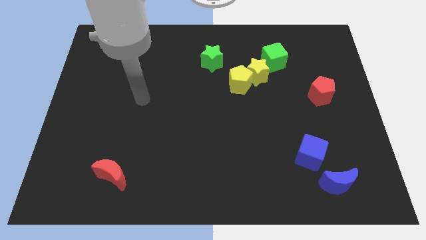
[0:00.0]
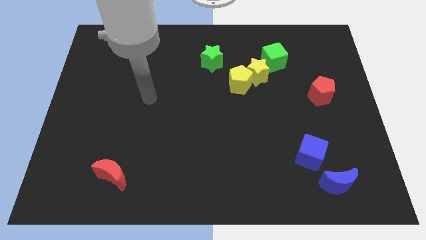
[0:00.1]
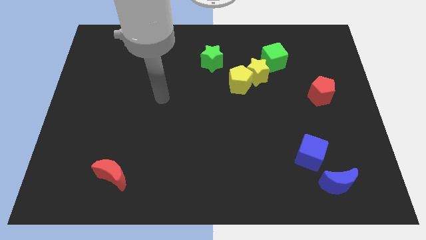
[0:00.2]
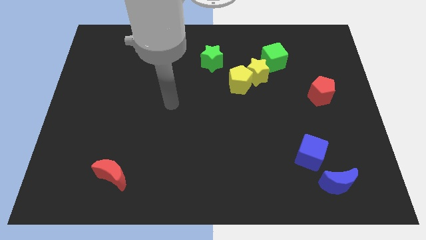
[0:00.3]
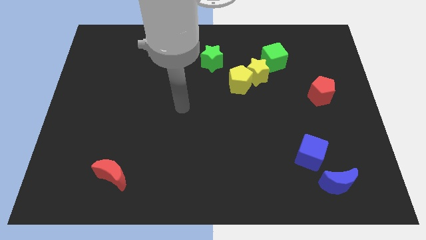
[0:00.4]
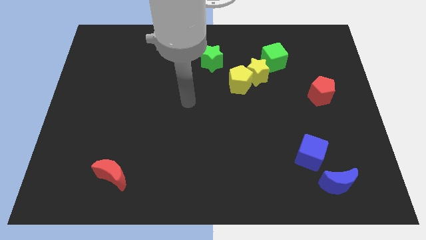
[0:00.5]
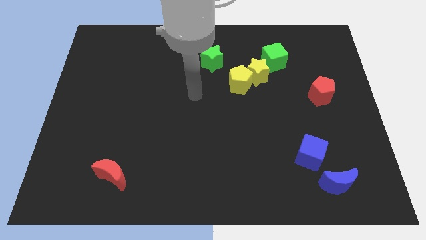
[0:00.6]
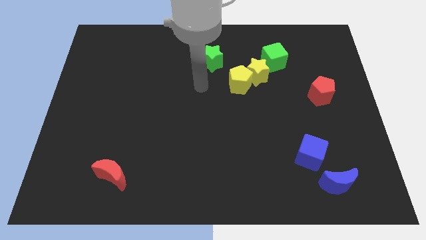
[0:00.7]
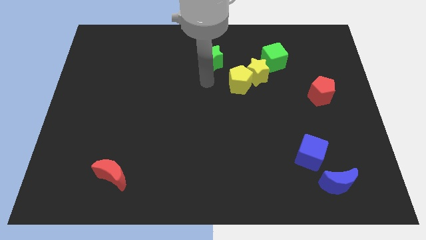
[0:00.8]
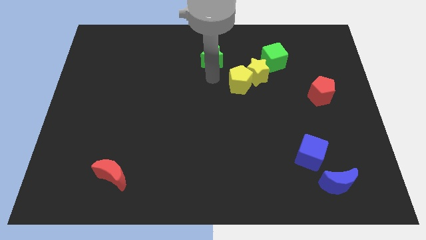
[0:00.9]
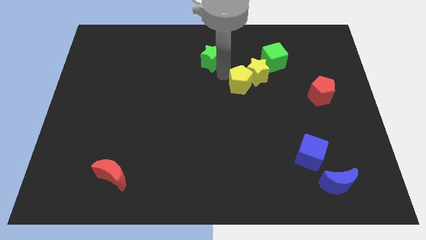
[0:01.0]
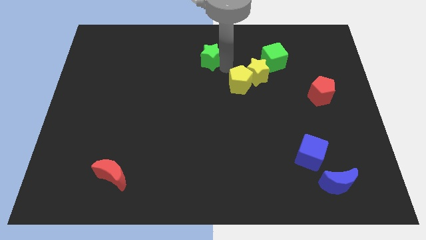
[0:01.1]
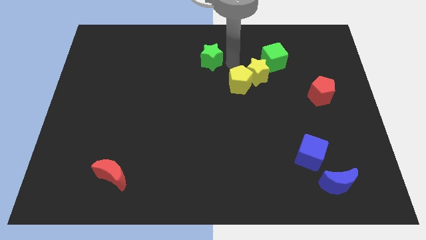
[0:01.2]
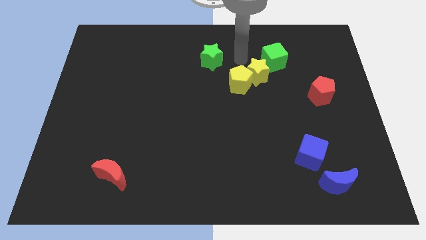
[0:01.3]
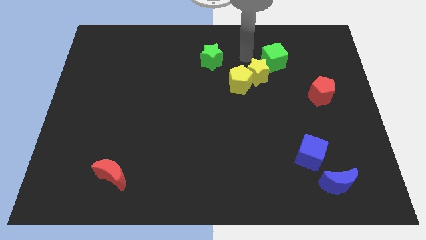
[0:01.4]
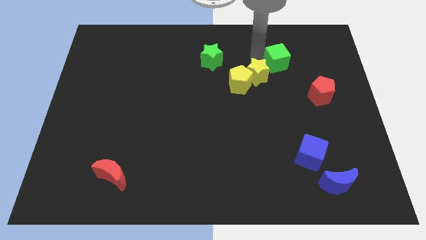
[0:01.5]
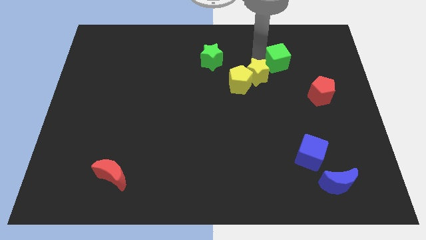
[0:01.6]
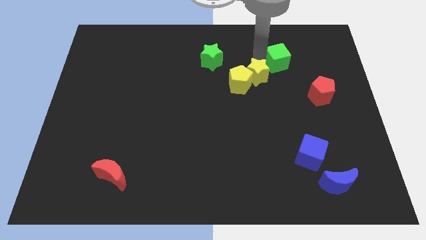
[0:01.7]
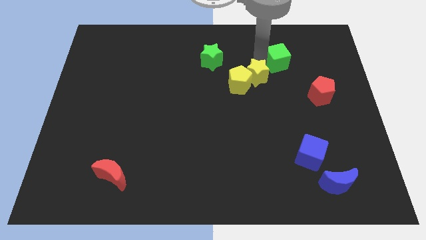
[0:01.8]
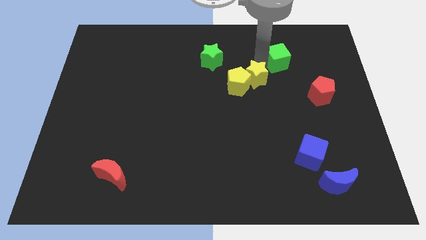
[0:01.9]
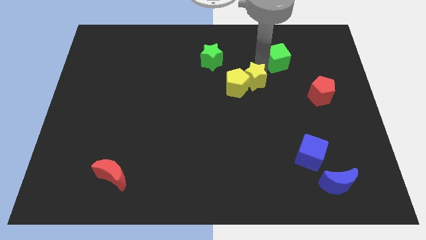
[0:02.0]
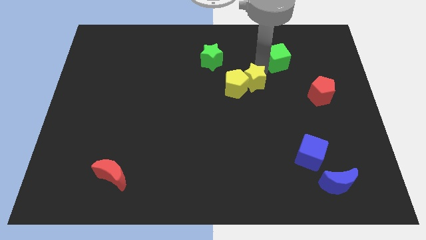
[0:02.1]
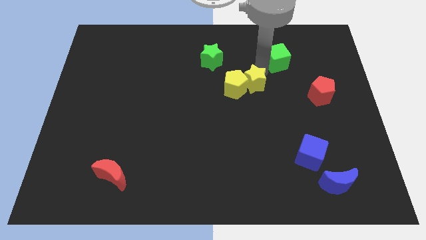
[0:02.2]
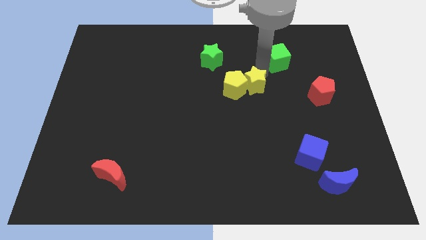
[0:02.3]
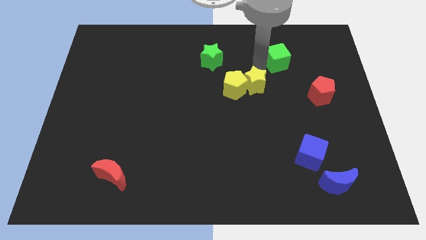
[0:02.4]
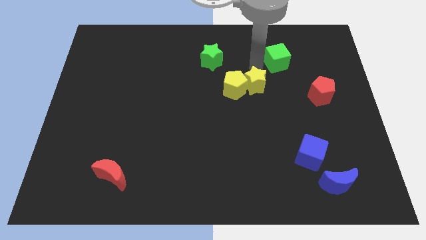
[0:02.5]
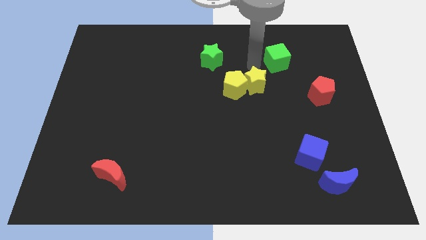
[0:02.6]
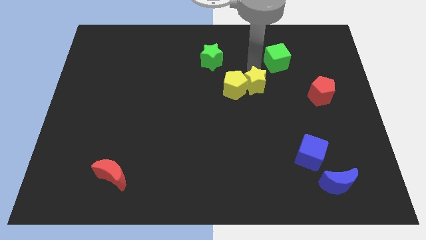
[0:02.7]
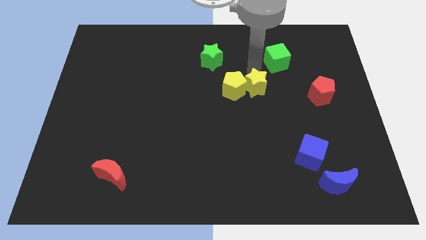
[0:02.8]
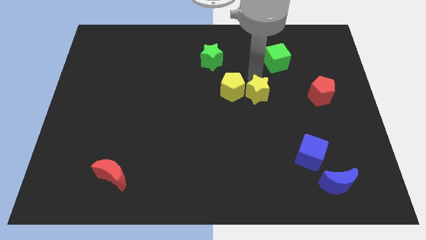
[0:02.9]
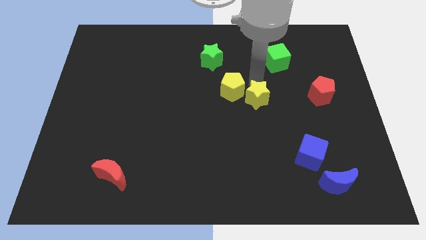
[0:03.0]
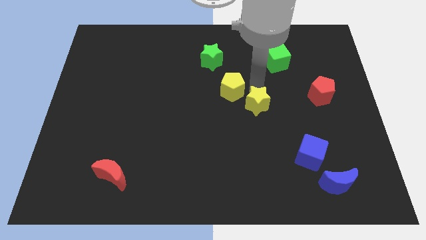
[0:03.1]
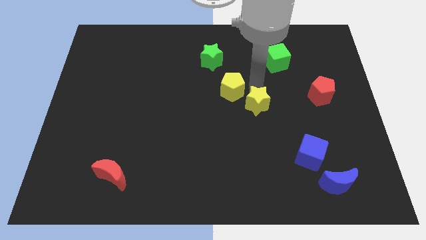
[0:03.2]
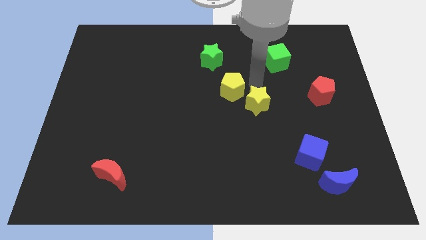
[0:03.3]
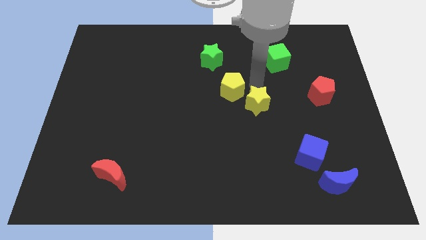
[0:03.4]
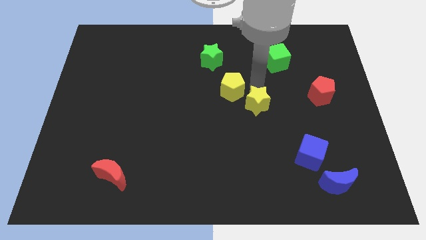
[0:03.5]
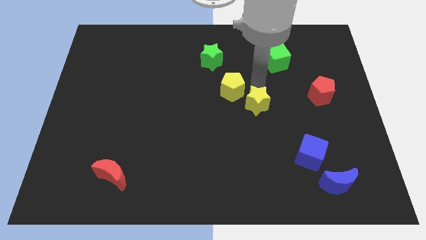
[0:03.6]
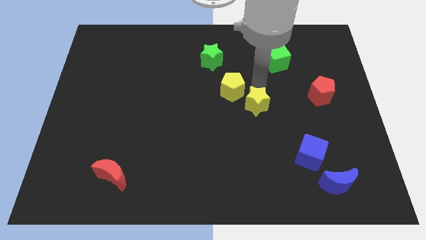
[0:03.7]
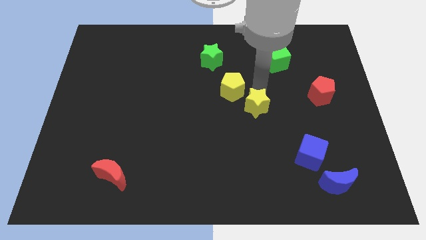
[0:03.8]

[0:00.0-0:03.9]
pull the yellow star apart from the yellow pentagon and green cube

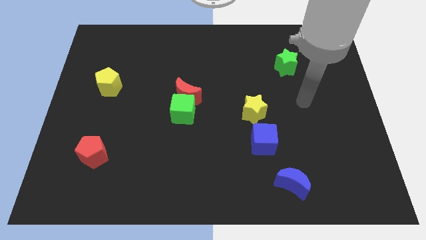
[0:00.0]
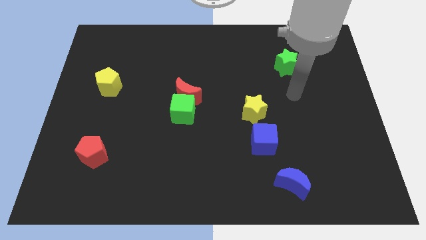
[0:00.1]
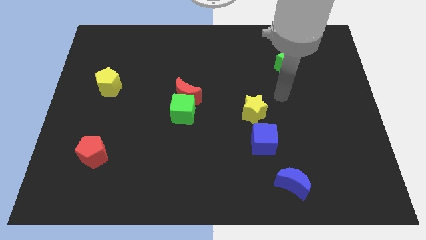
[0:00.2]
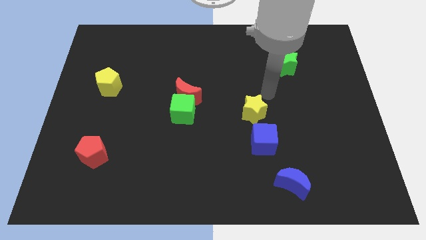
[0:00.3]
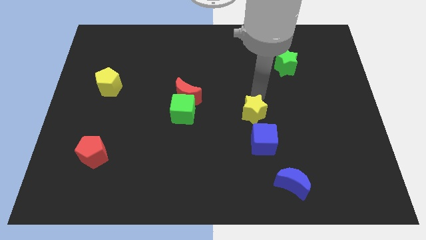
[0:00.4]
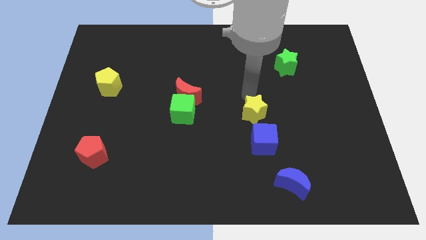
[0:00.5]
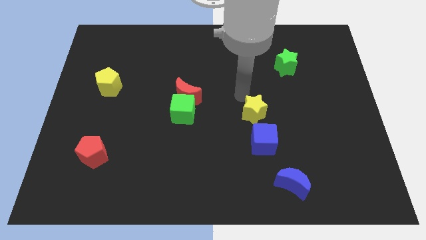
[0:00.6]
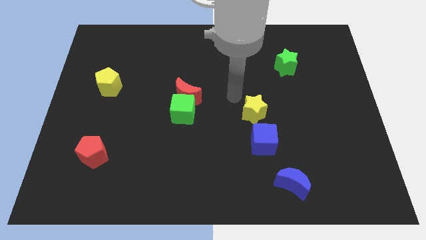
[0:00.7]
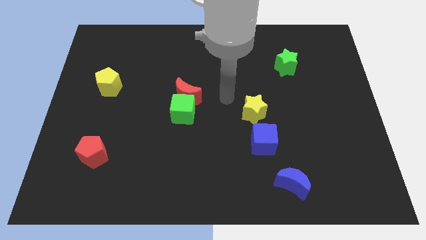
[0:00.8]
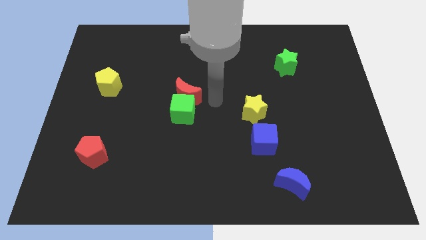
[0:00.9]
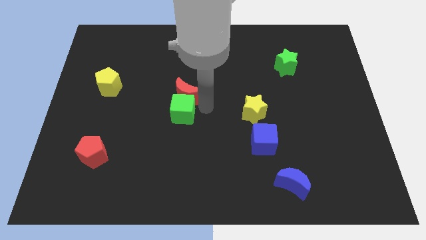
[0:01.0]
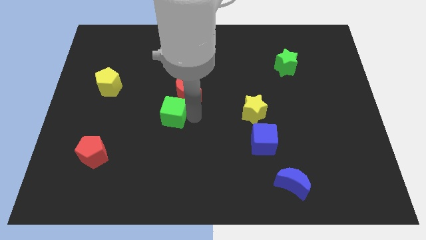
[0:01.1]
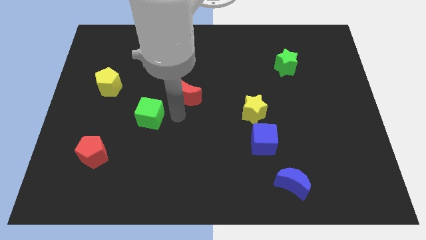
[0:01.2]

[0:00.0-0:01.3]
pull the red moon apart from the green cube

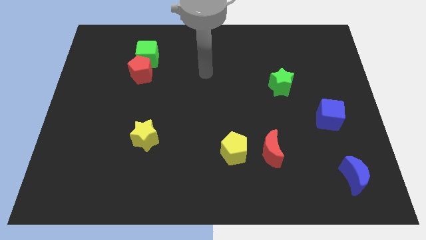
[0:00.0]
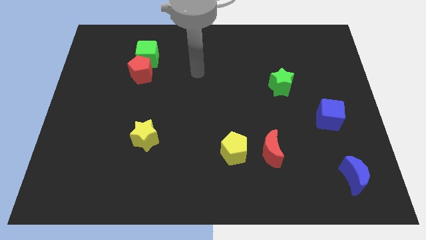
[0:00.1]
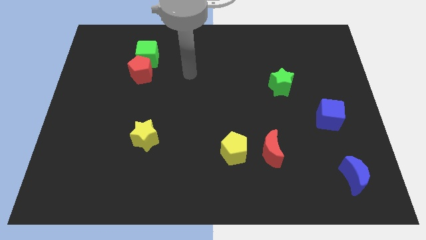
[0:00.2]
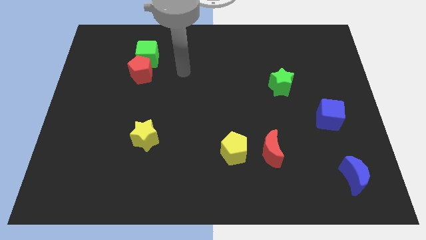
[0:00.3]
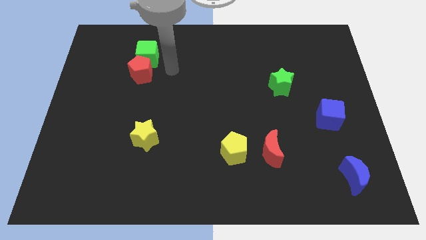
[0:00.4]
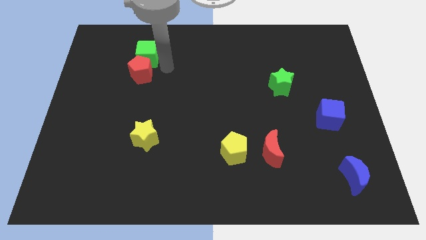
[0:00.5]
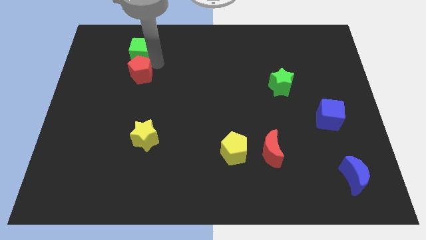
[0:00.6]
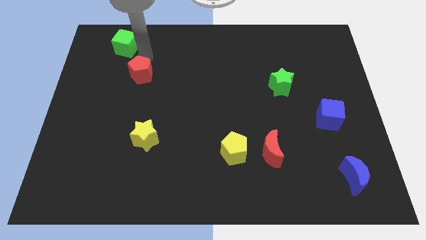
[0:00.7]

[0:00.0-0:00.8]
pull the red pentagon apart from the green cube

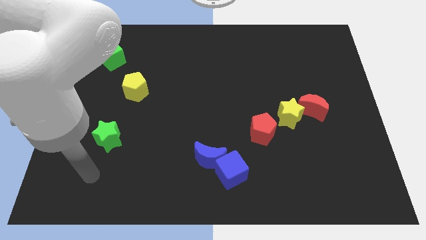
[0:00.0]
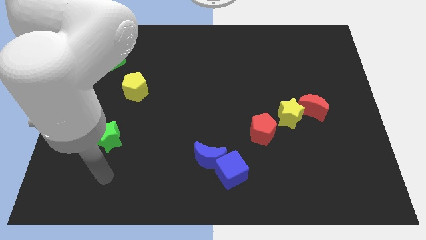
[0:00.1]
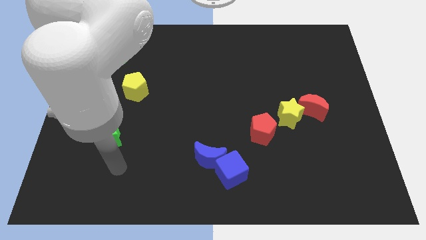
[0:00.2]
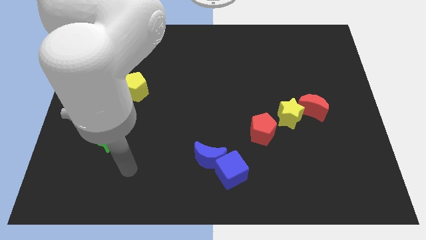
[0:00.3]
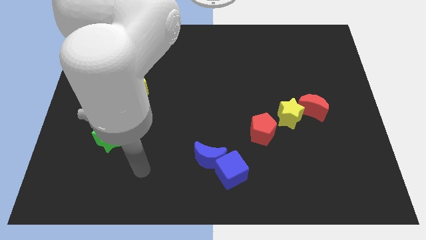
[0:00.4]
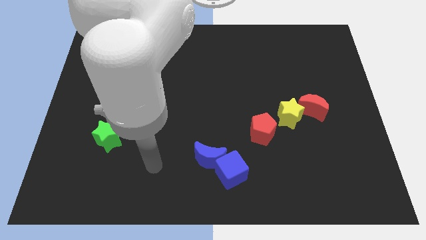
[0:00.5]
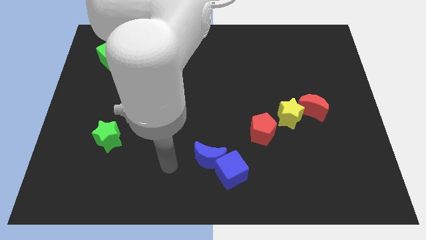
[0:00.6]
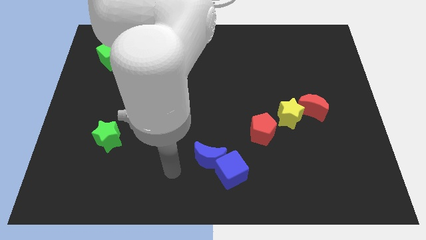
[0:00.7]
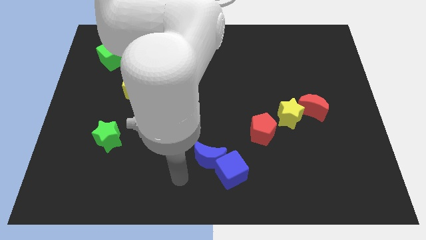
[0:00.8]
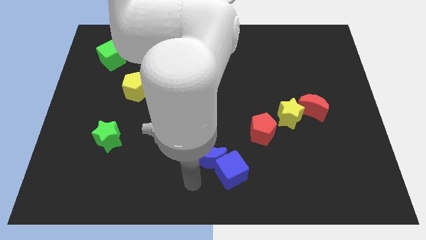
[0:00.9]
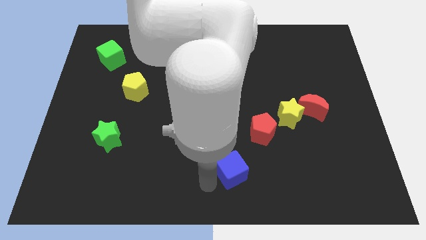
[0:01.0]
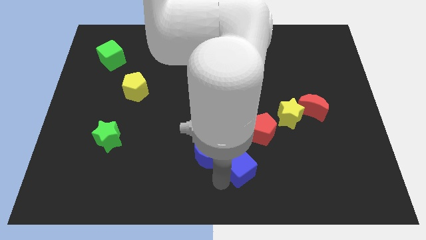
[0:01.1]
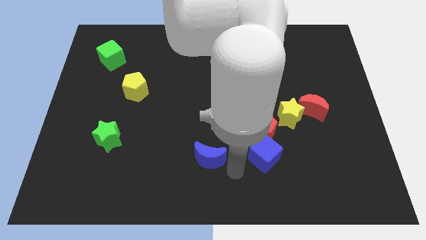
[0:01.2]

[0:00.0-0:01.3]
separate the blue moon from the blue cube

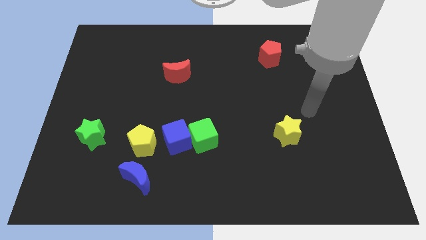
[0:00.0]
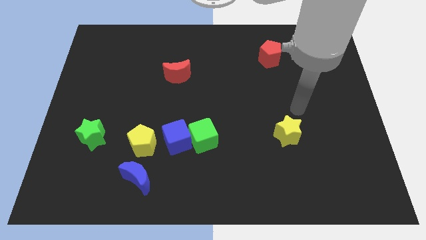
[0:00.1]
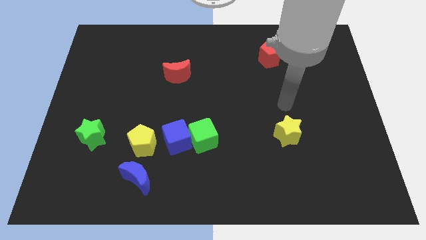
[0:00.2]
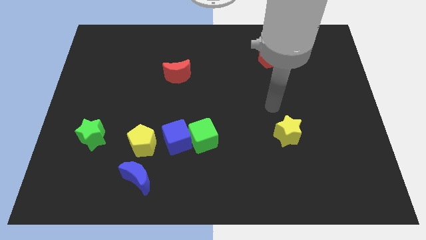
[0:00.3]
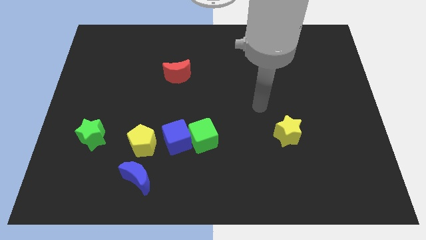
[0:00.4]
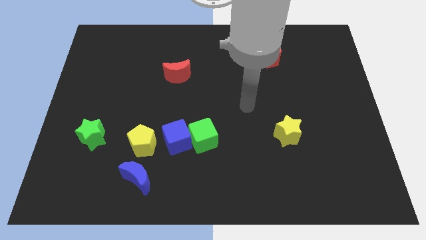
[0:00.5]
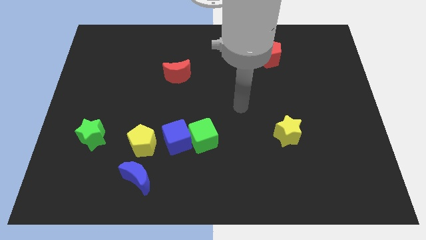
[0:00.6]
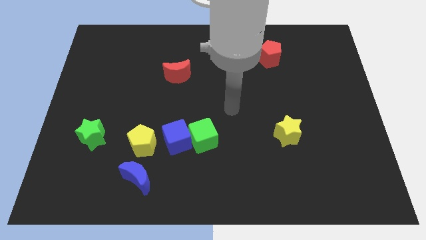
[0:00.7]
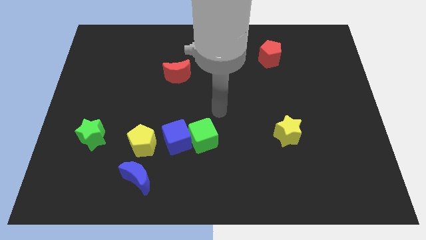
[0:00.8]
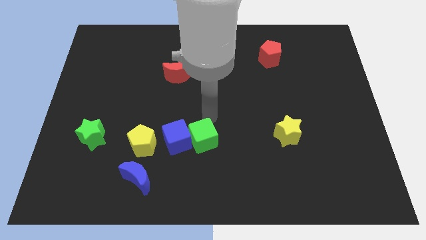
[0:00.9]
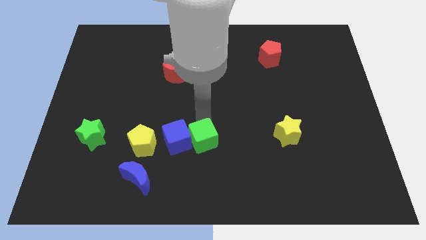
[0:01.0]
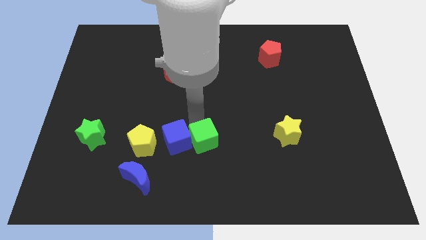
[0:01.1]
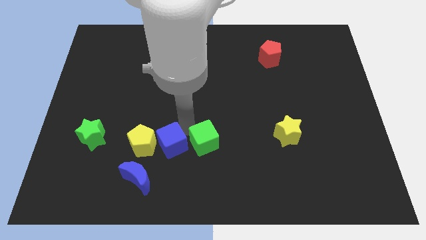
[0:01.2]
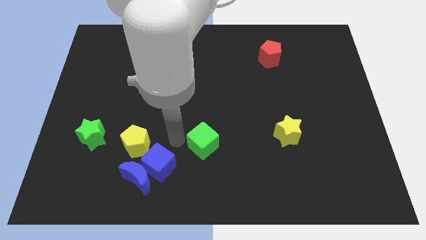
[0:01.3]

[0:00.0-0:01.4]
move the green cube away from the blue cube

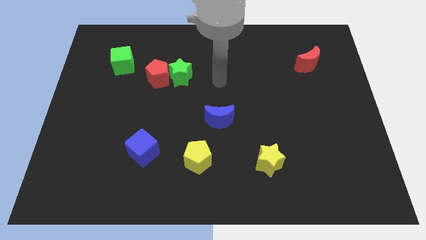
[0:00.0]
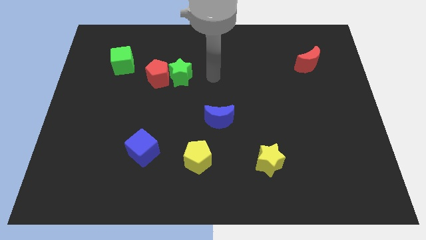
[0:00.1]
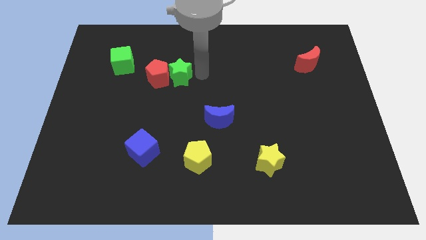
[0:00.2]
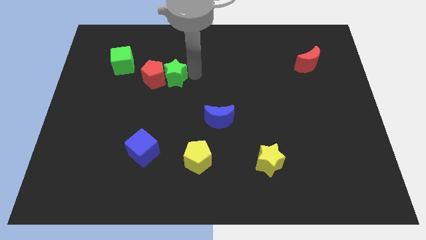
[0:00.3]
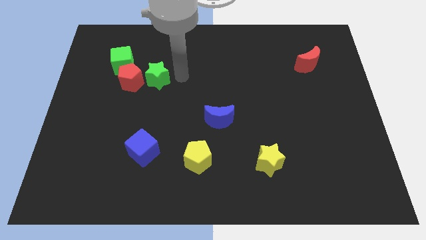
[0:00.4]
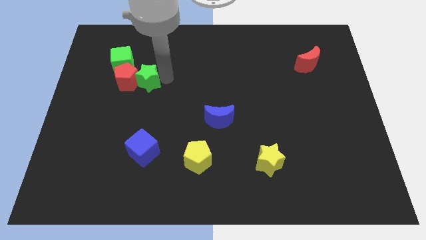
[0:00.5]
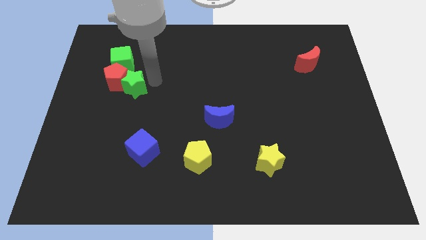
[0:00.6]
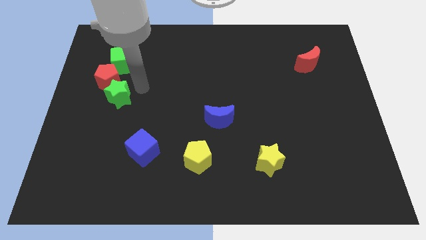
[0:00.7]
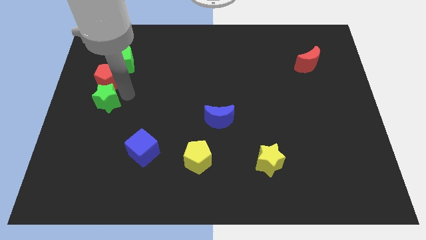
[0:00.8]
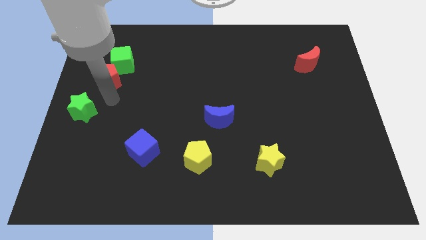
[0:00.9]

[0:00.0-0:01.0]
move the red pentagon away from the green star
